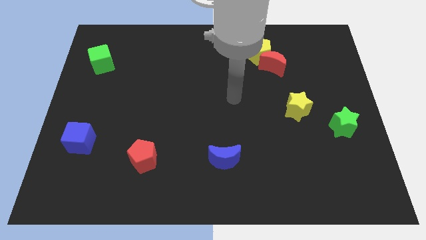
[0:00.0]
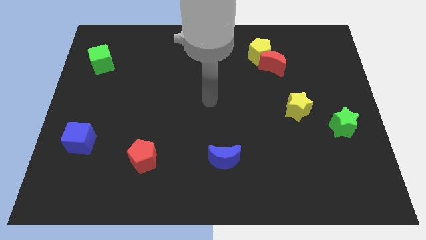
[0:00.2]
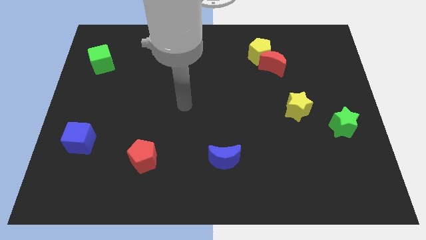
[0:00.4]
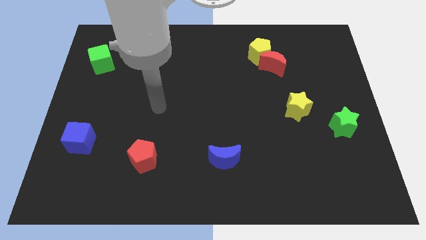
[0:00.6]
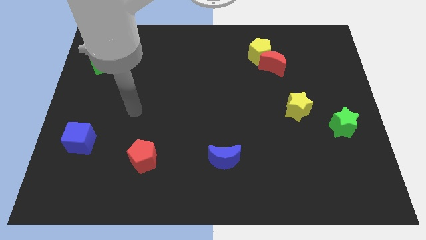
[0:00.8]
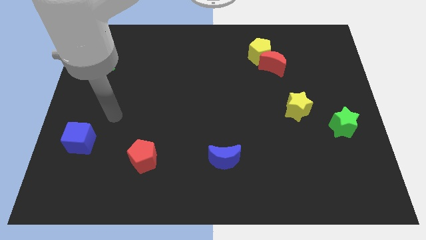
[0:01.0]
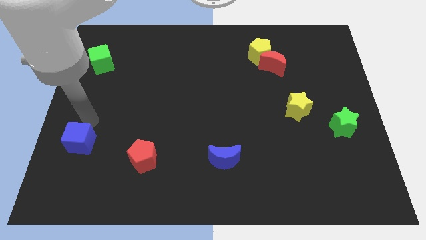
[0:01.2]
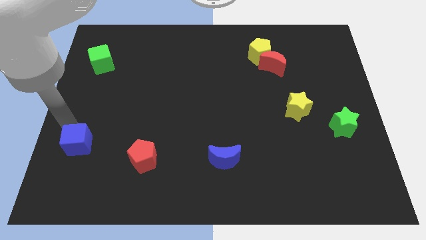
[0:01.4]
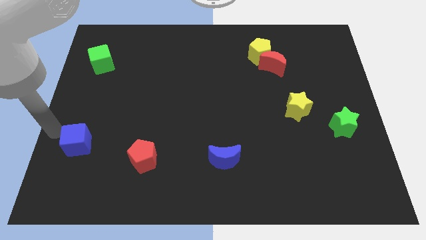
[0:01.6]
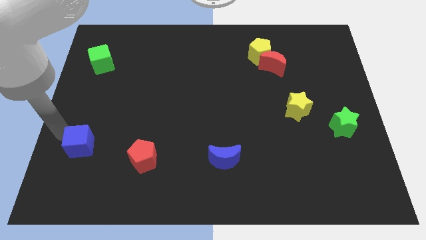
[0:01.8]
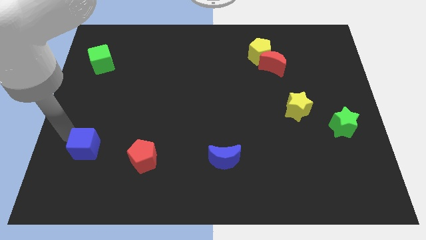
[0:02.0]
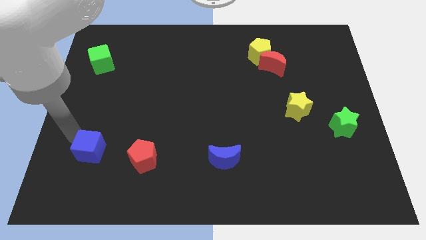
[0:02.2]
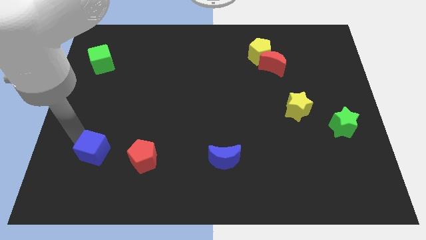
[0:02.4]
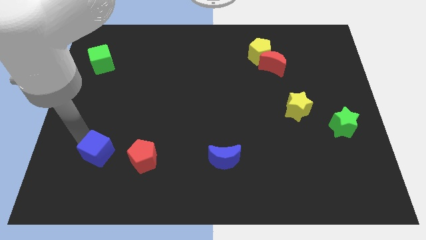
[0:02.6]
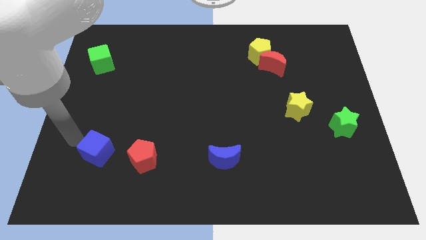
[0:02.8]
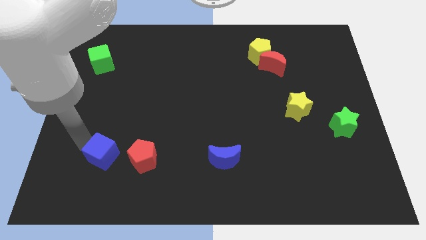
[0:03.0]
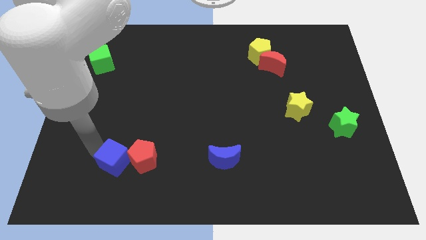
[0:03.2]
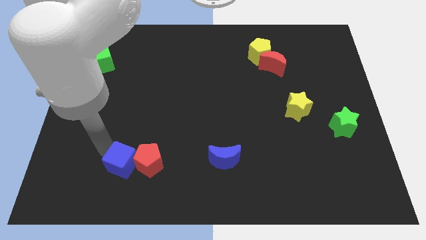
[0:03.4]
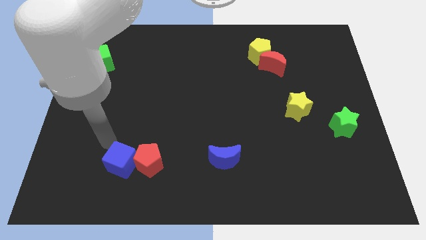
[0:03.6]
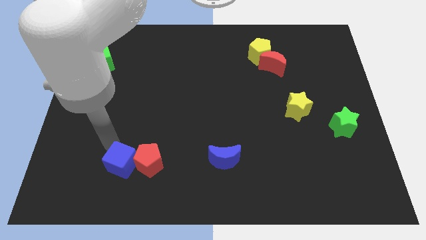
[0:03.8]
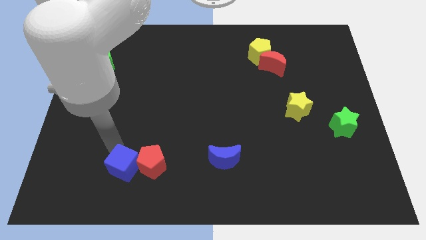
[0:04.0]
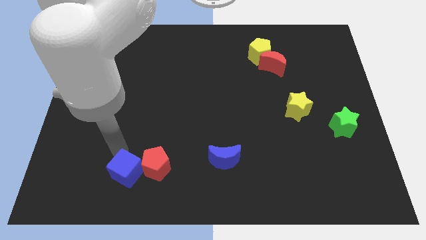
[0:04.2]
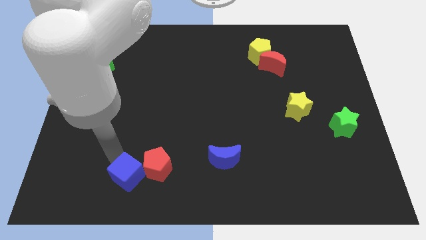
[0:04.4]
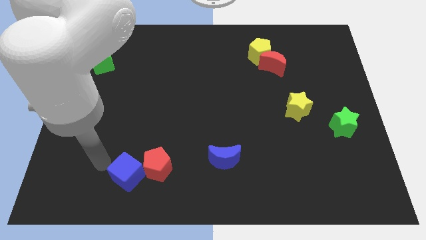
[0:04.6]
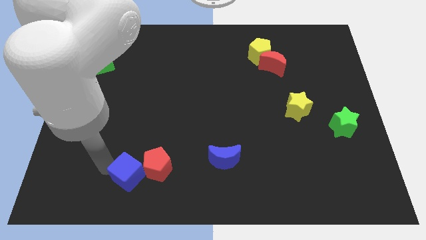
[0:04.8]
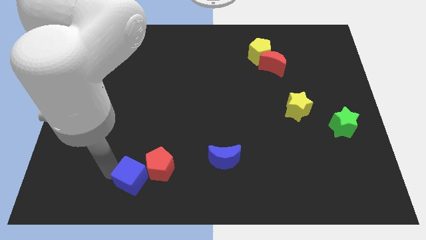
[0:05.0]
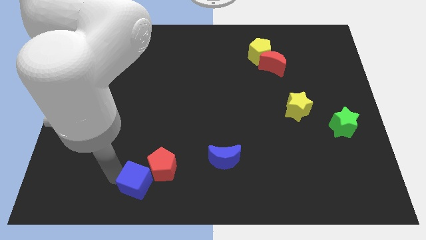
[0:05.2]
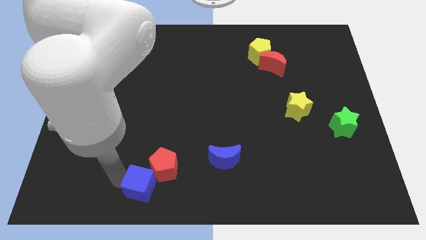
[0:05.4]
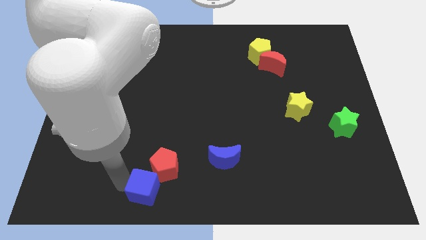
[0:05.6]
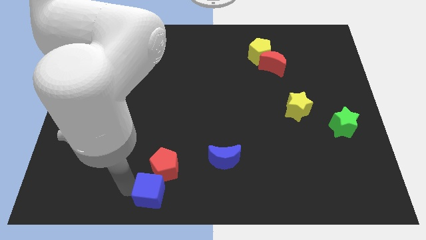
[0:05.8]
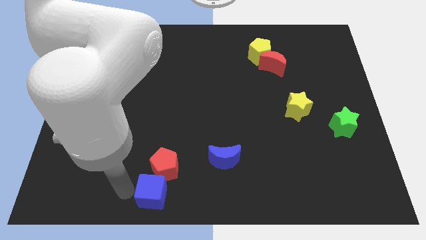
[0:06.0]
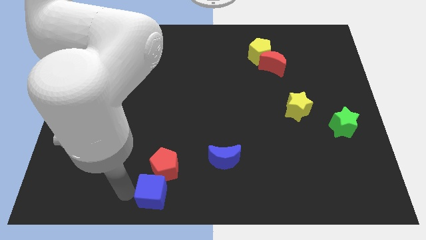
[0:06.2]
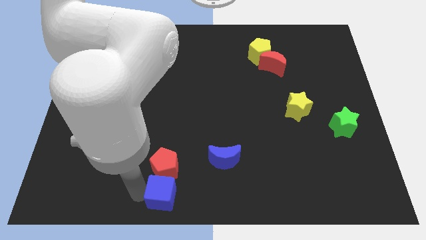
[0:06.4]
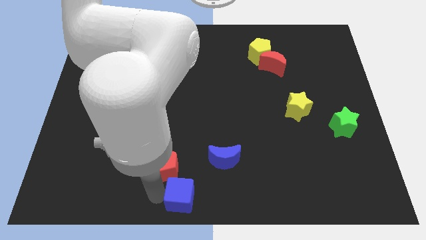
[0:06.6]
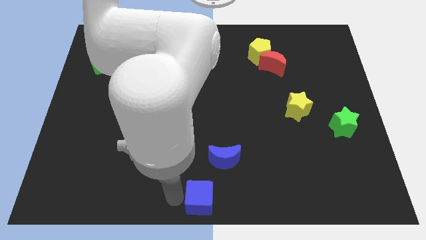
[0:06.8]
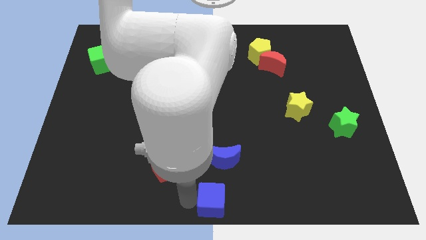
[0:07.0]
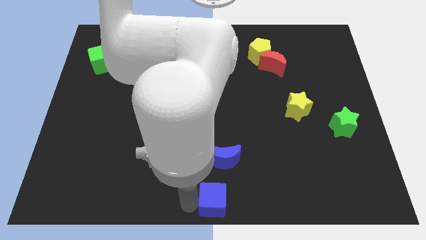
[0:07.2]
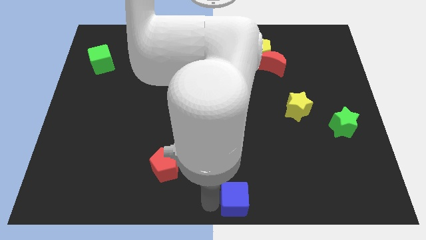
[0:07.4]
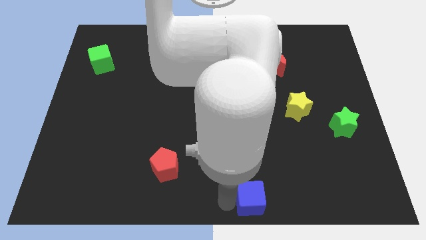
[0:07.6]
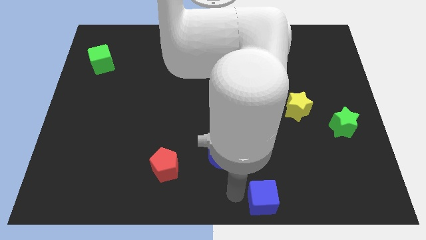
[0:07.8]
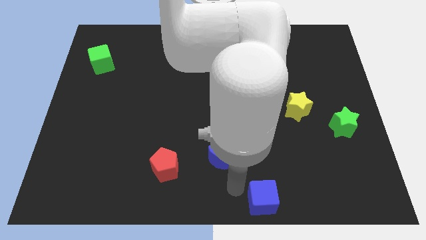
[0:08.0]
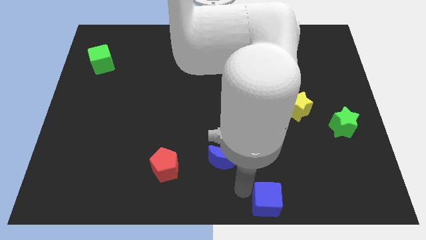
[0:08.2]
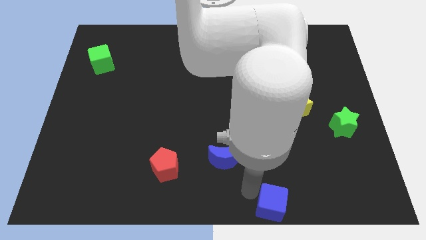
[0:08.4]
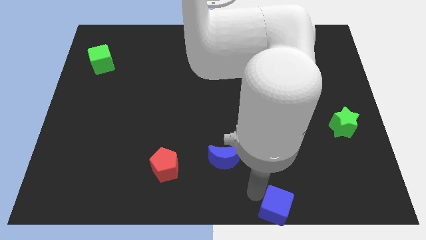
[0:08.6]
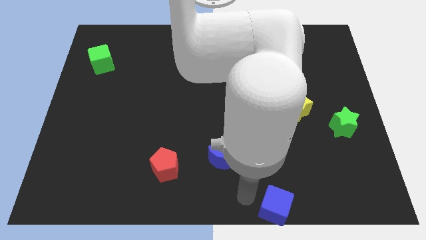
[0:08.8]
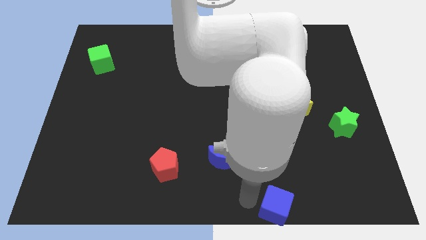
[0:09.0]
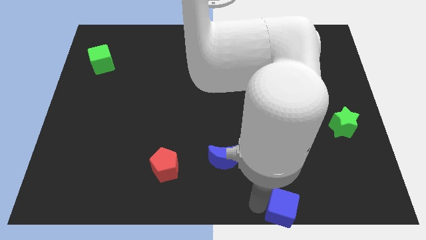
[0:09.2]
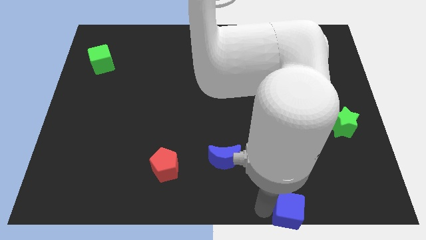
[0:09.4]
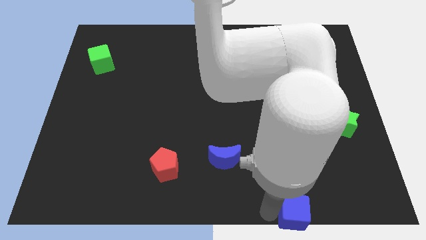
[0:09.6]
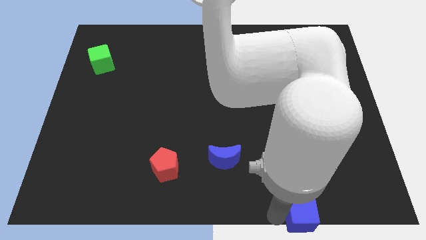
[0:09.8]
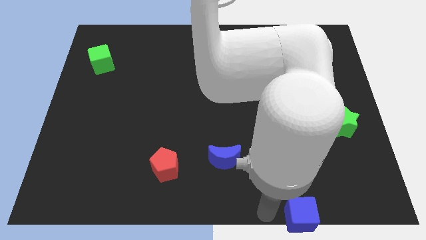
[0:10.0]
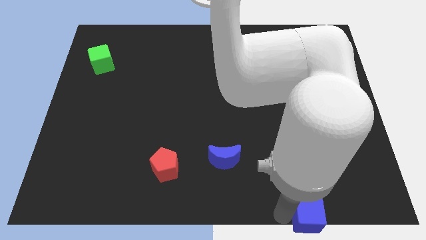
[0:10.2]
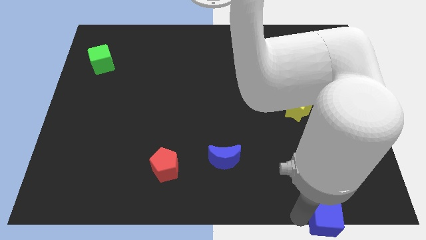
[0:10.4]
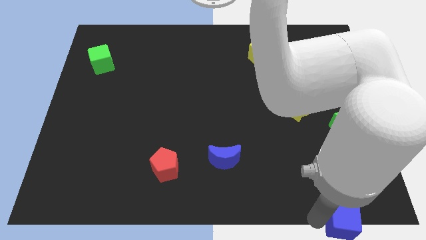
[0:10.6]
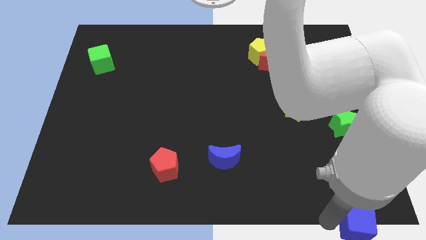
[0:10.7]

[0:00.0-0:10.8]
put the blue cube to the bottom right corner

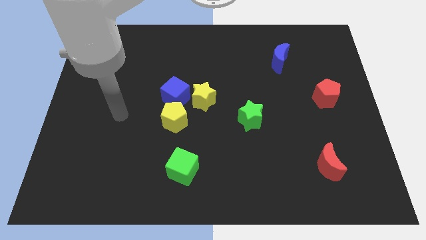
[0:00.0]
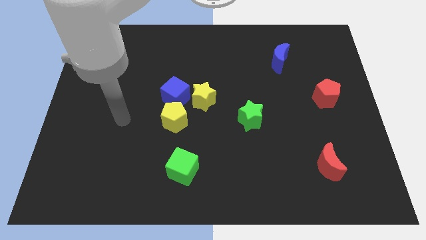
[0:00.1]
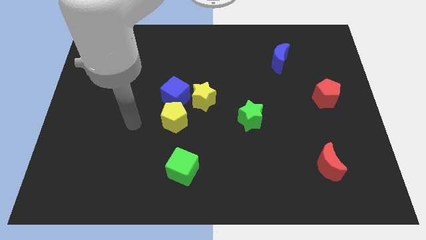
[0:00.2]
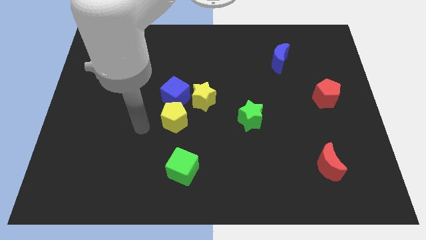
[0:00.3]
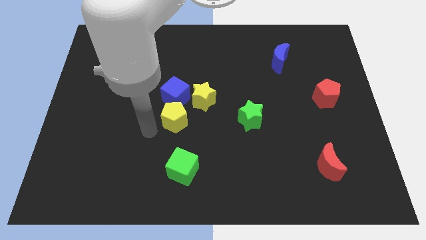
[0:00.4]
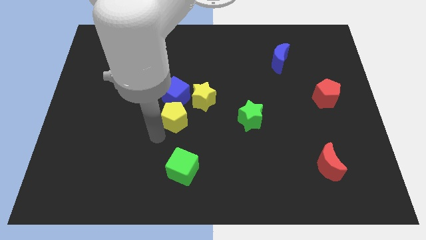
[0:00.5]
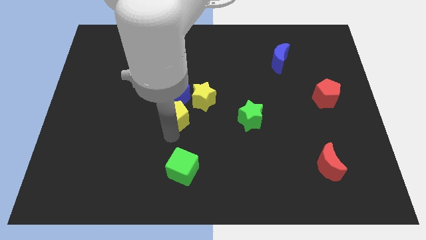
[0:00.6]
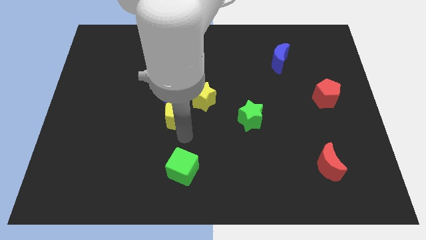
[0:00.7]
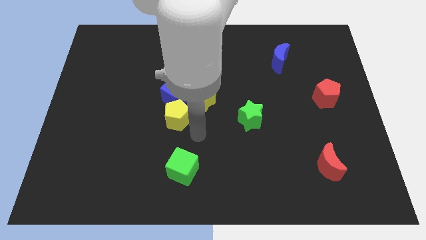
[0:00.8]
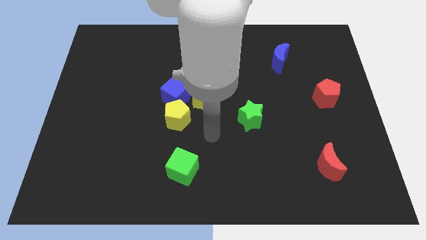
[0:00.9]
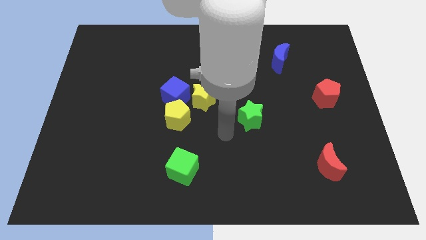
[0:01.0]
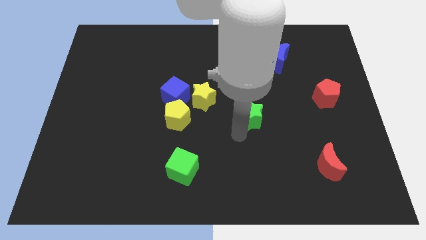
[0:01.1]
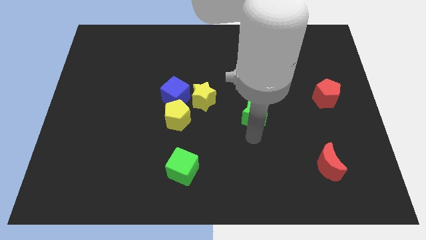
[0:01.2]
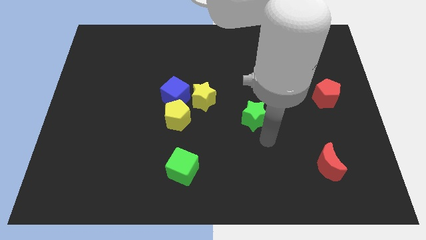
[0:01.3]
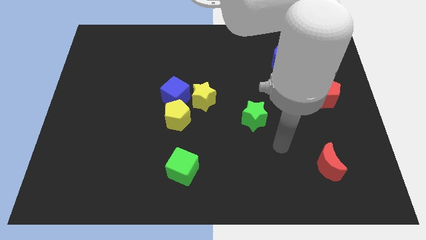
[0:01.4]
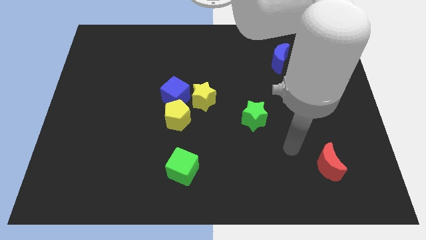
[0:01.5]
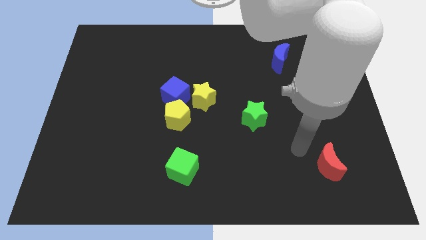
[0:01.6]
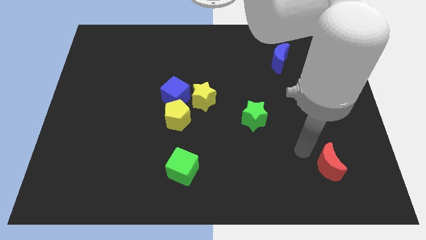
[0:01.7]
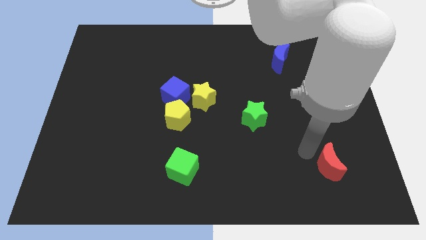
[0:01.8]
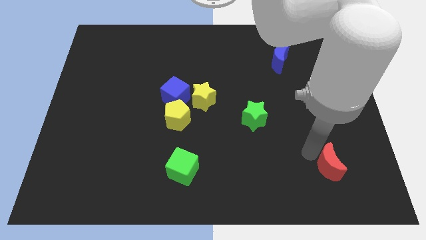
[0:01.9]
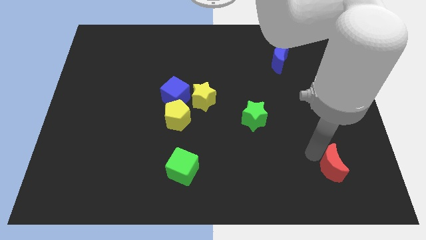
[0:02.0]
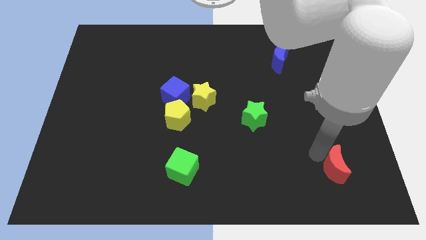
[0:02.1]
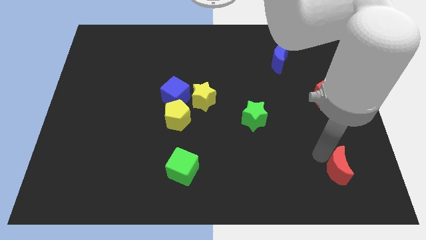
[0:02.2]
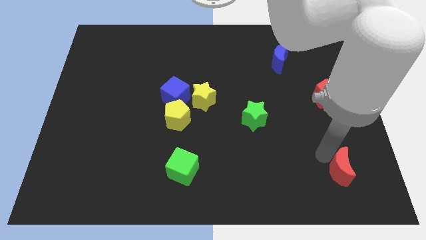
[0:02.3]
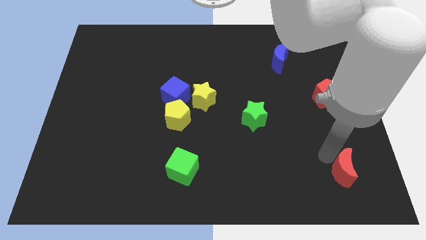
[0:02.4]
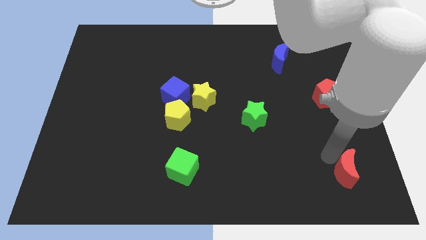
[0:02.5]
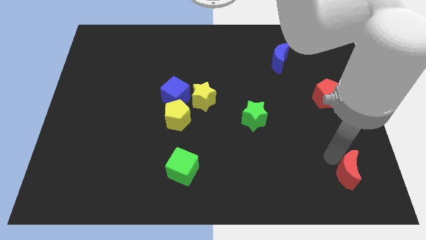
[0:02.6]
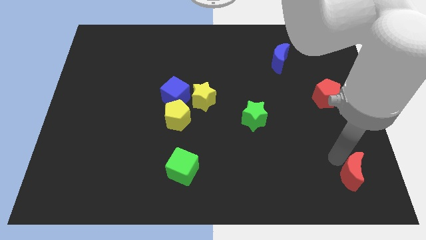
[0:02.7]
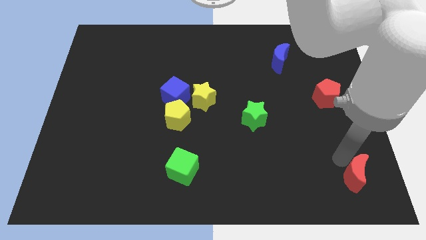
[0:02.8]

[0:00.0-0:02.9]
push the red moon to the bottom right of the board
